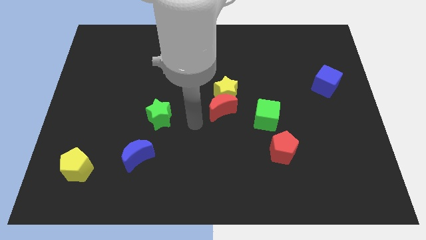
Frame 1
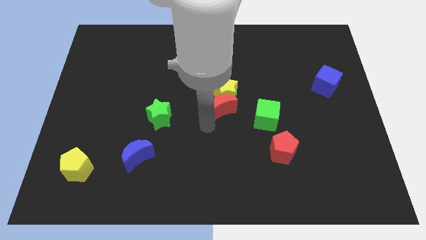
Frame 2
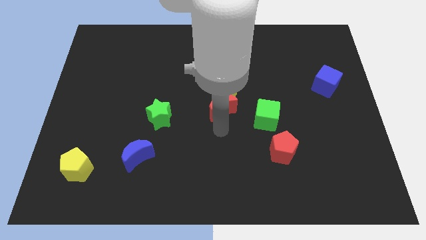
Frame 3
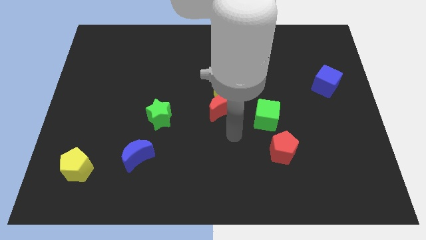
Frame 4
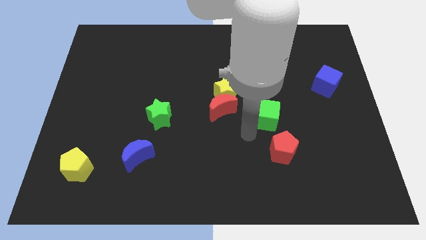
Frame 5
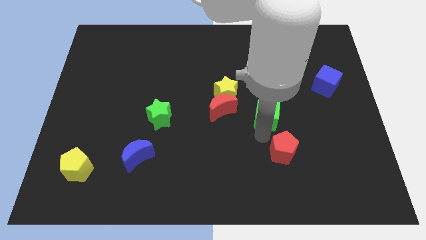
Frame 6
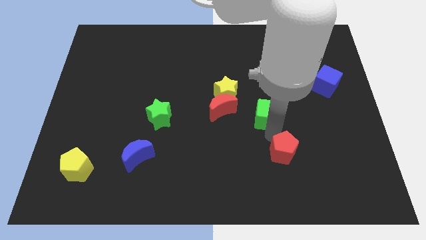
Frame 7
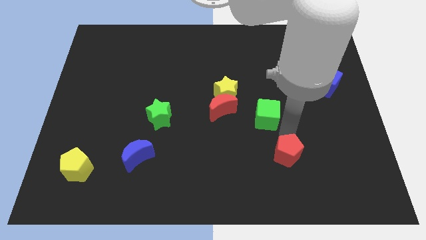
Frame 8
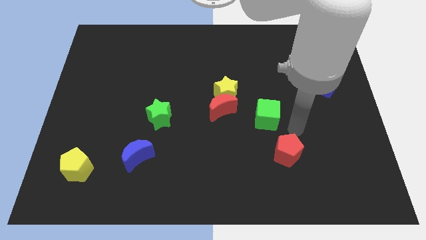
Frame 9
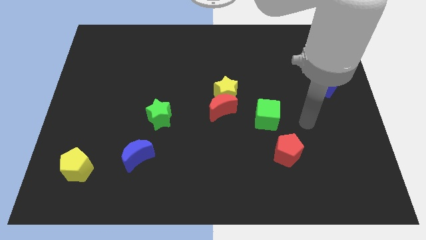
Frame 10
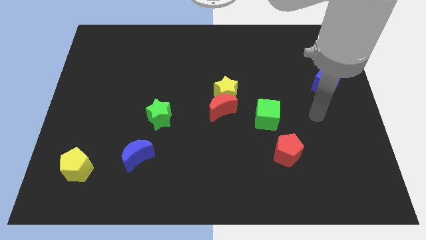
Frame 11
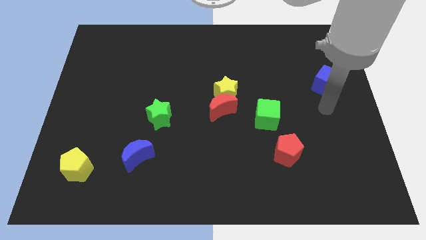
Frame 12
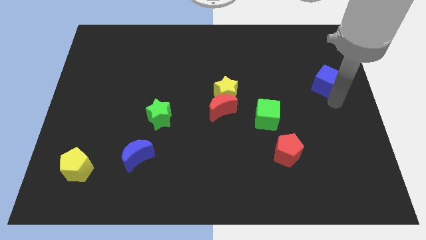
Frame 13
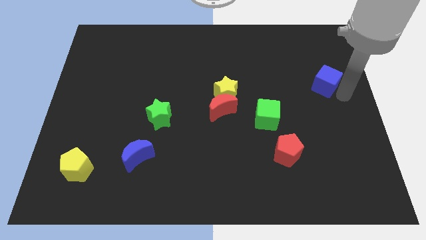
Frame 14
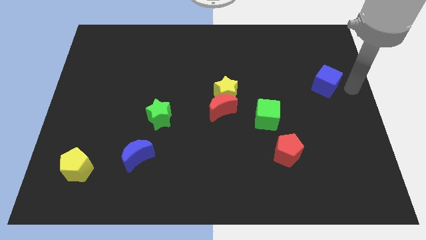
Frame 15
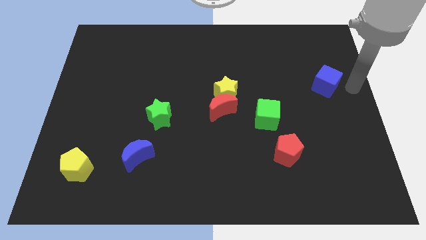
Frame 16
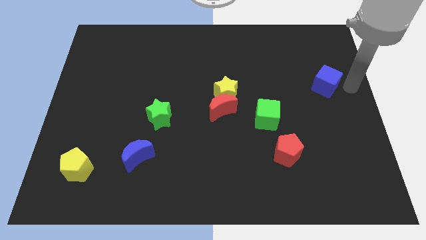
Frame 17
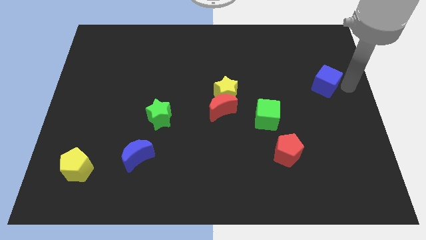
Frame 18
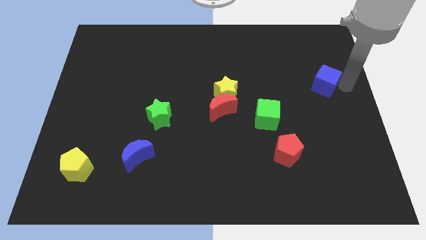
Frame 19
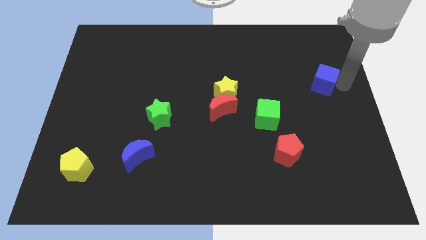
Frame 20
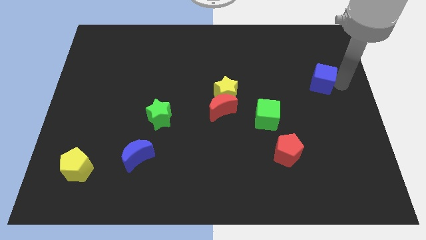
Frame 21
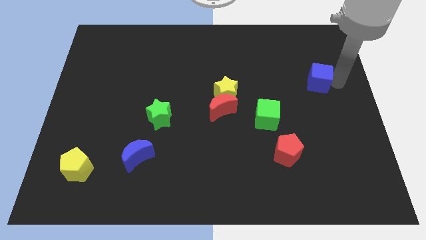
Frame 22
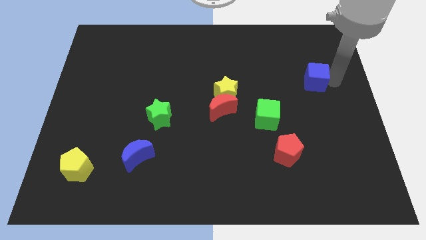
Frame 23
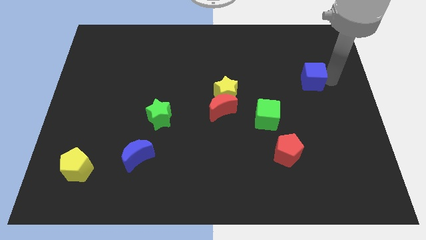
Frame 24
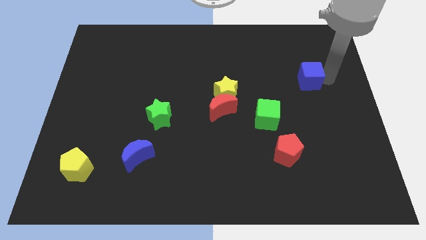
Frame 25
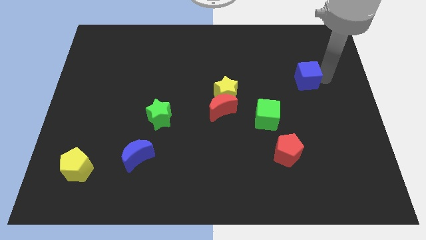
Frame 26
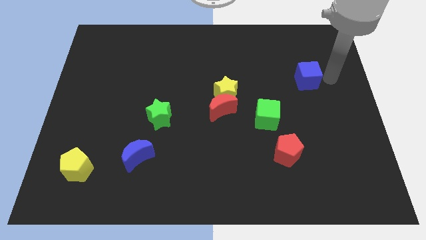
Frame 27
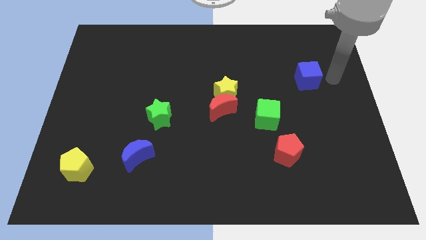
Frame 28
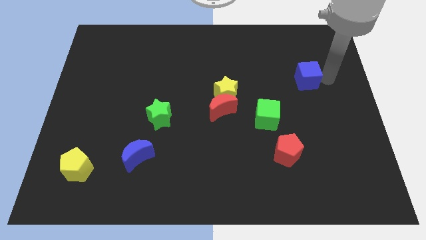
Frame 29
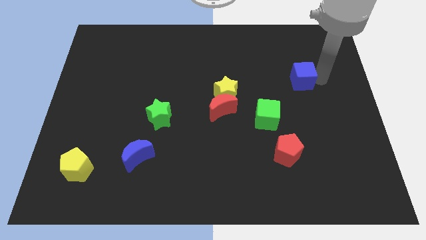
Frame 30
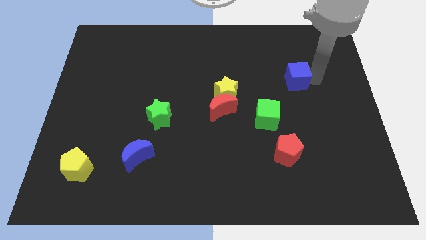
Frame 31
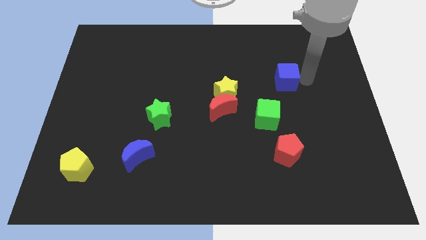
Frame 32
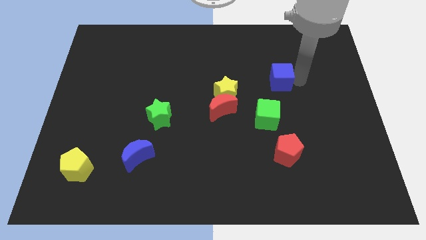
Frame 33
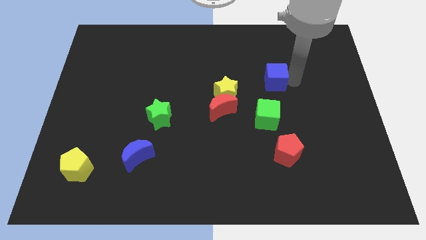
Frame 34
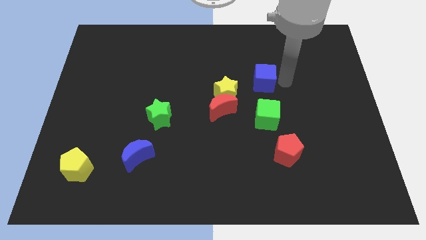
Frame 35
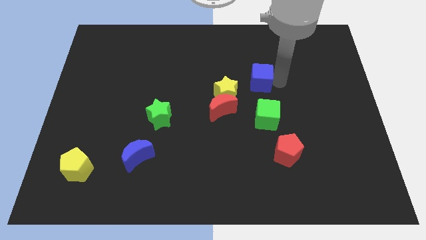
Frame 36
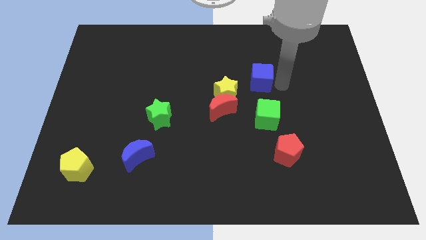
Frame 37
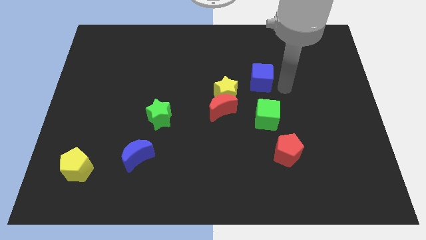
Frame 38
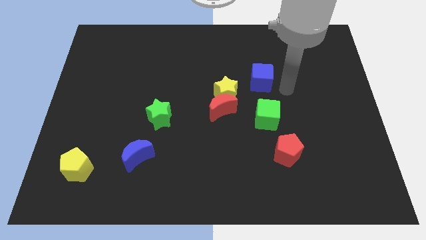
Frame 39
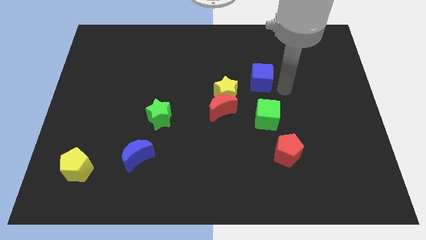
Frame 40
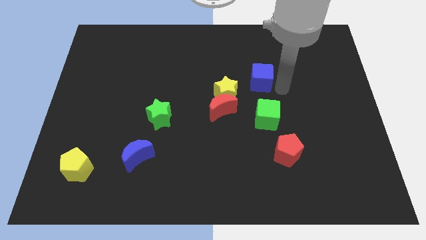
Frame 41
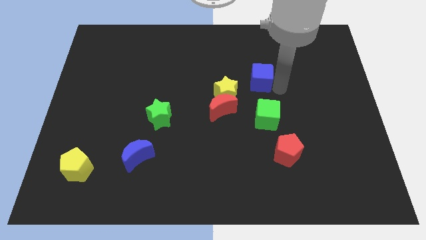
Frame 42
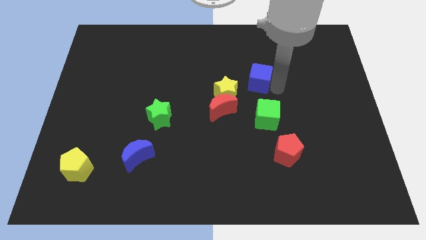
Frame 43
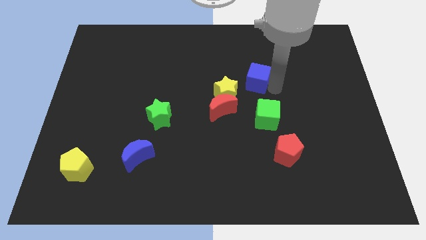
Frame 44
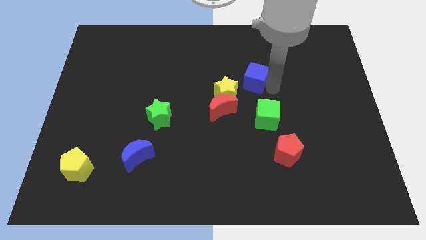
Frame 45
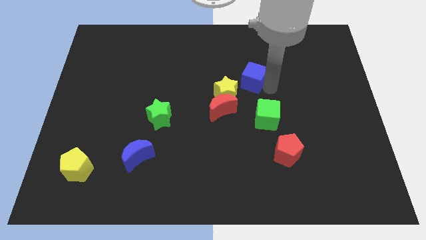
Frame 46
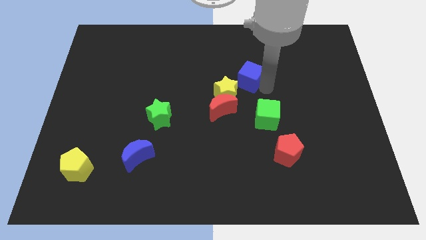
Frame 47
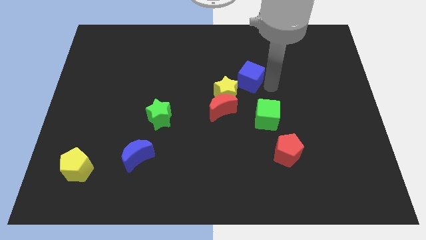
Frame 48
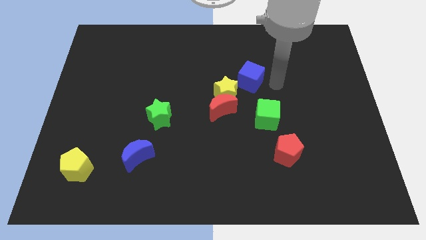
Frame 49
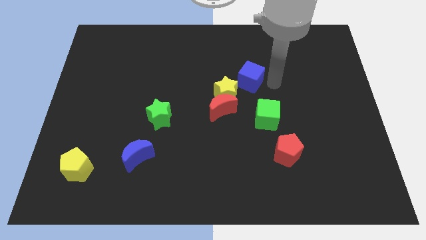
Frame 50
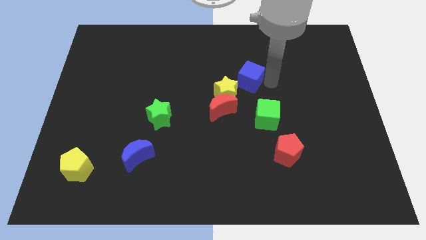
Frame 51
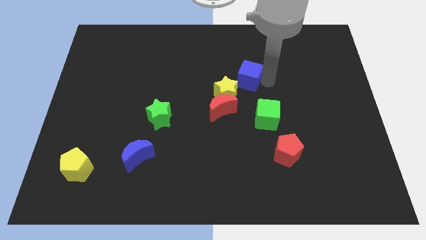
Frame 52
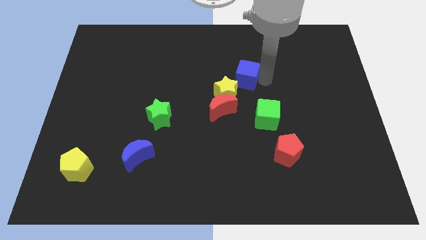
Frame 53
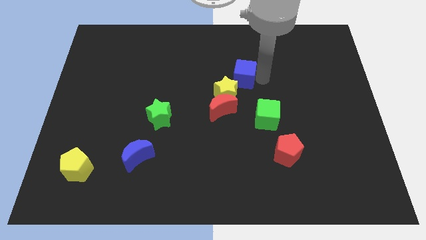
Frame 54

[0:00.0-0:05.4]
push the blue cube to the left

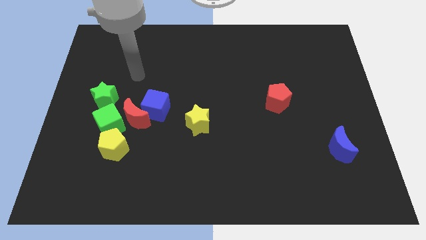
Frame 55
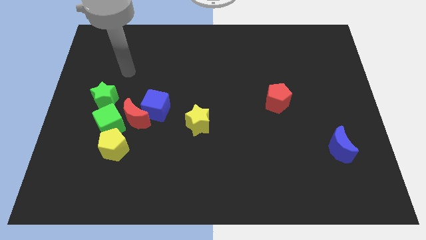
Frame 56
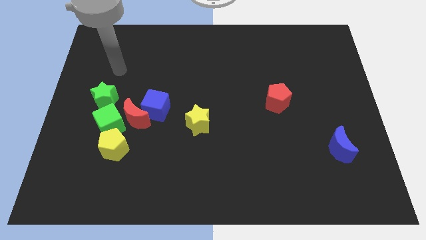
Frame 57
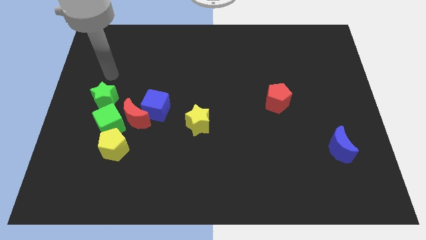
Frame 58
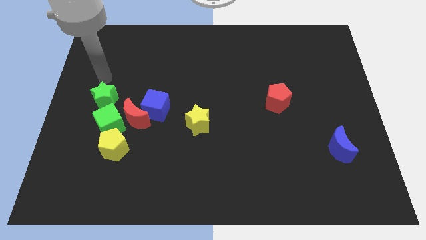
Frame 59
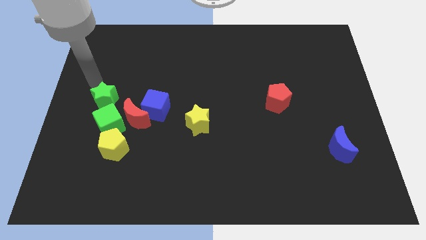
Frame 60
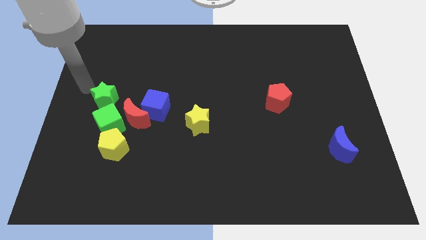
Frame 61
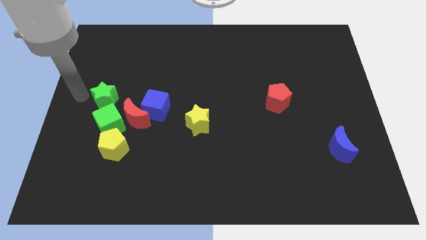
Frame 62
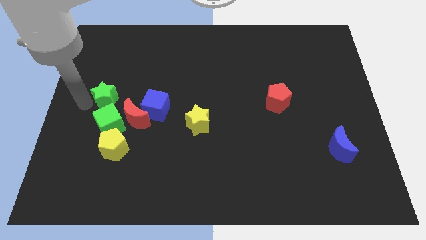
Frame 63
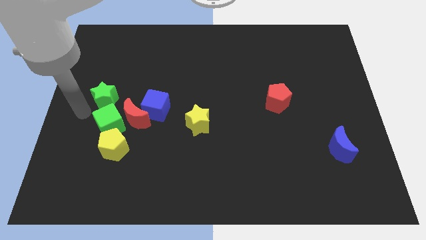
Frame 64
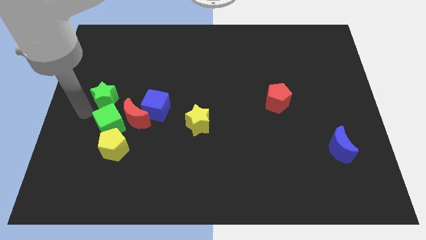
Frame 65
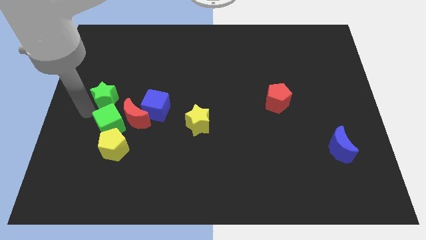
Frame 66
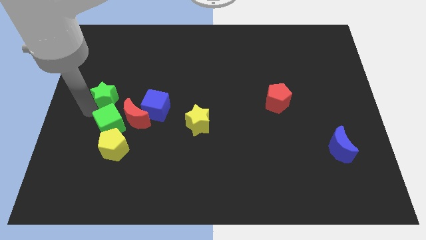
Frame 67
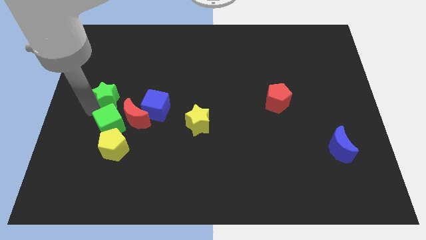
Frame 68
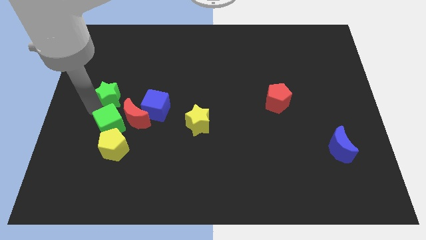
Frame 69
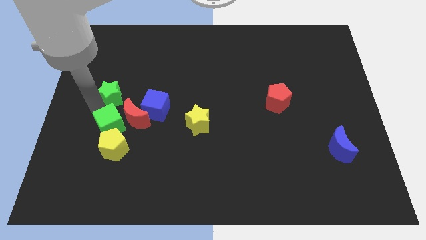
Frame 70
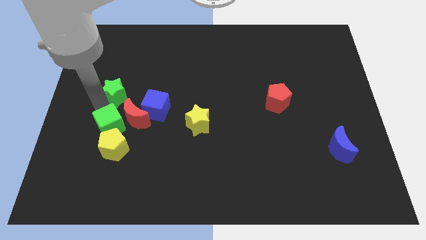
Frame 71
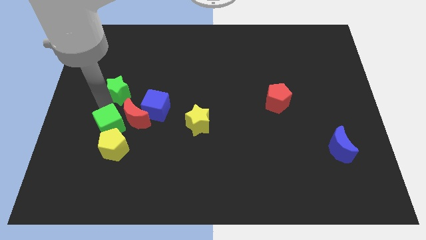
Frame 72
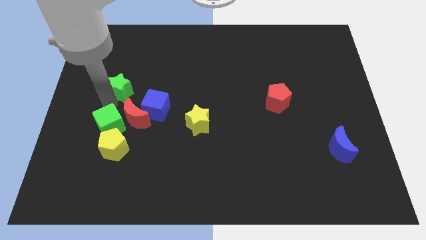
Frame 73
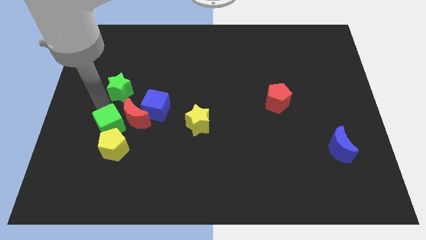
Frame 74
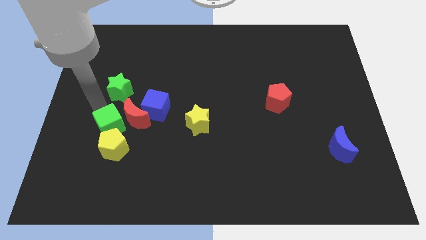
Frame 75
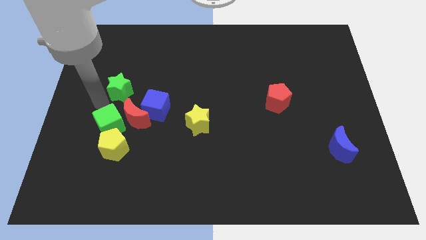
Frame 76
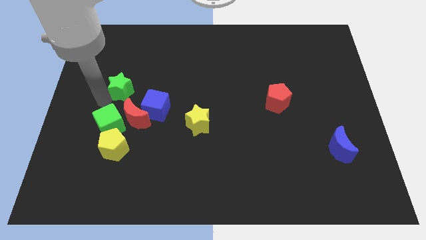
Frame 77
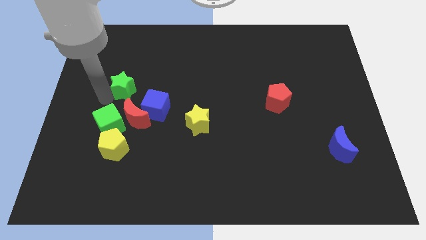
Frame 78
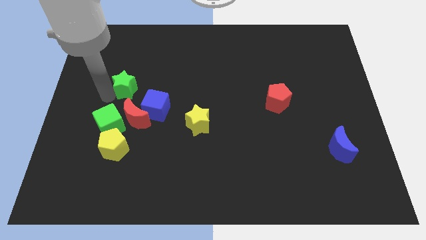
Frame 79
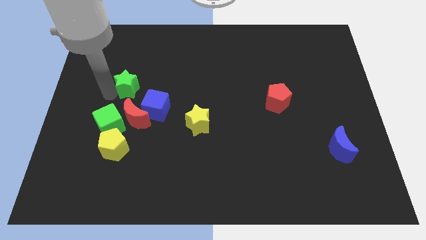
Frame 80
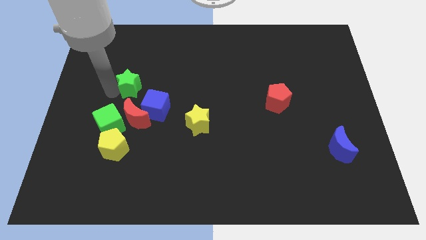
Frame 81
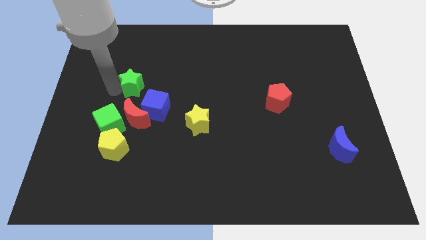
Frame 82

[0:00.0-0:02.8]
slide the green star somewhat up and right diagonally
